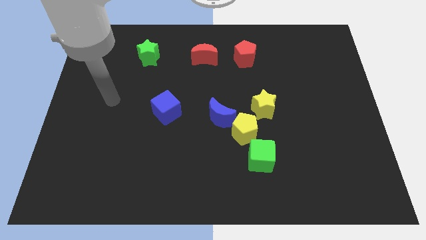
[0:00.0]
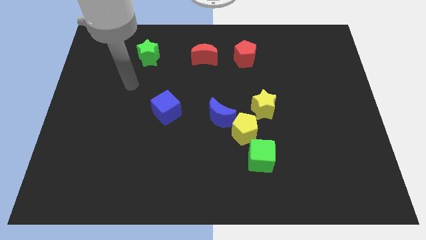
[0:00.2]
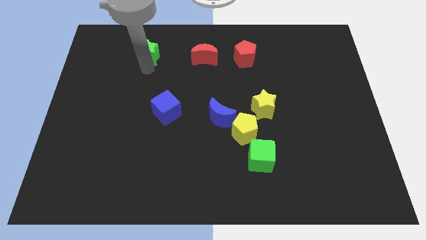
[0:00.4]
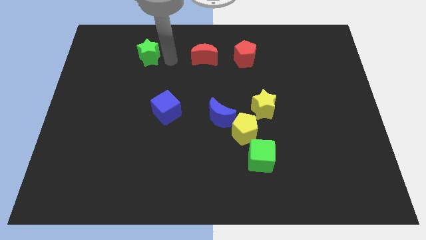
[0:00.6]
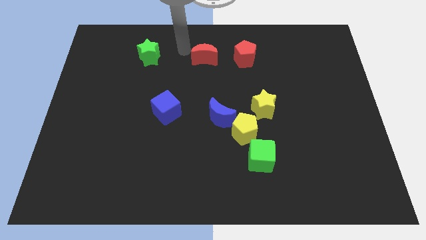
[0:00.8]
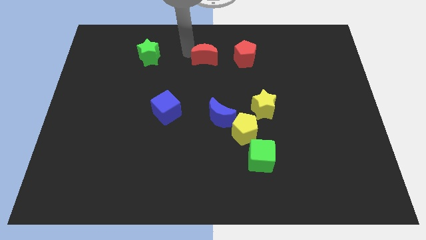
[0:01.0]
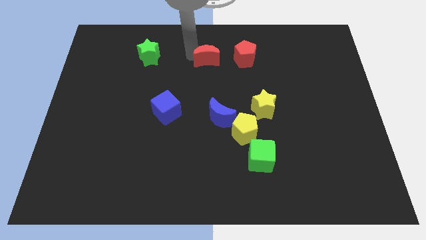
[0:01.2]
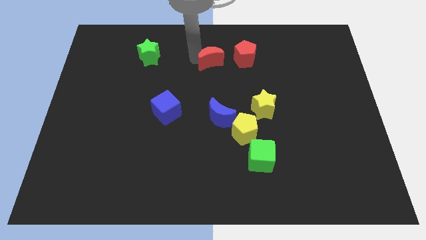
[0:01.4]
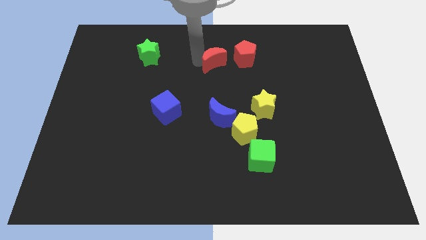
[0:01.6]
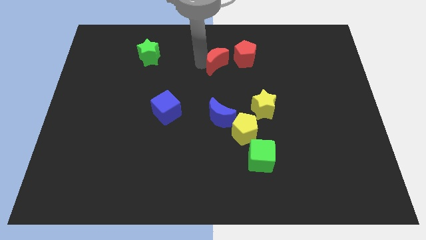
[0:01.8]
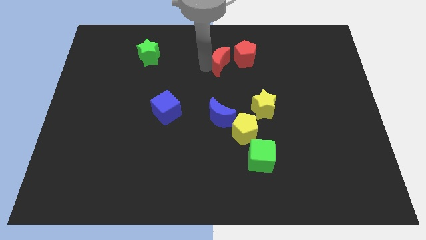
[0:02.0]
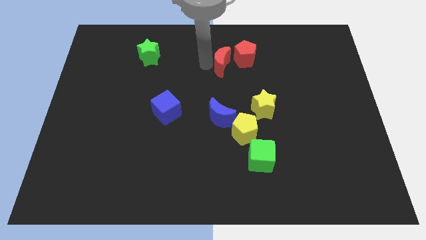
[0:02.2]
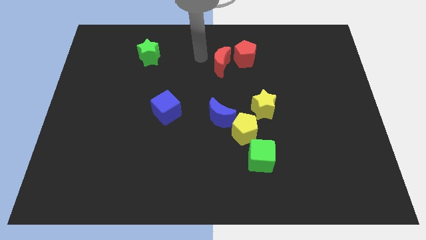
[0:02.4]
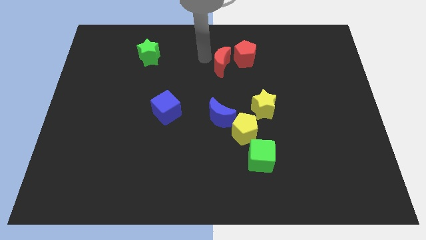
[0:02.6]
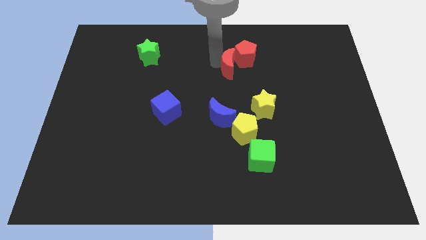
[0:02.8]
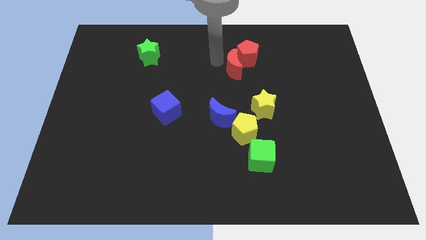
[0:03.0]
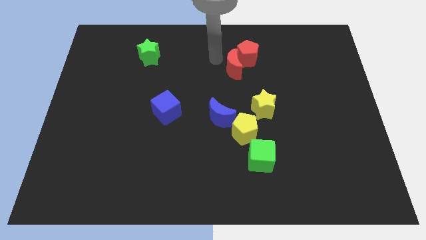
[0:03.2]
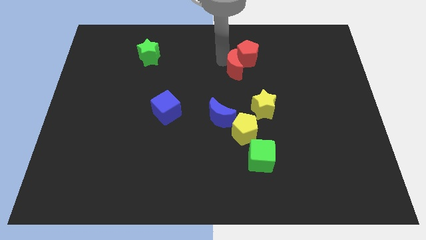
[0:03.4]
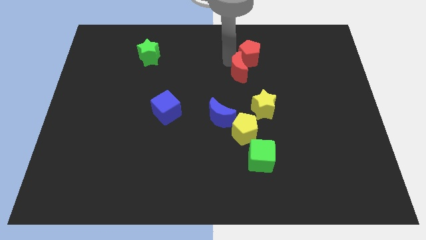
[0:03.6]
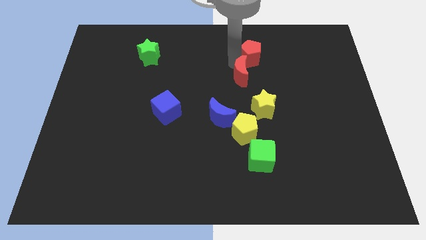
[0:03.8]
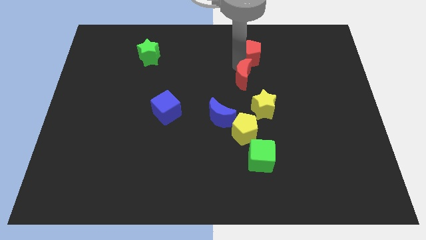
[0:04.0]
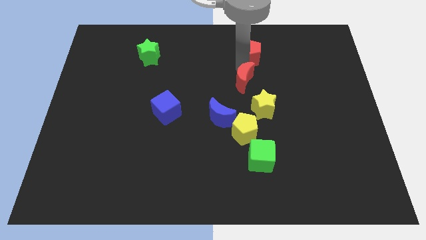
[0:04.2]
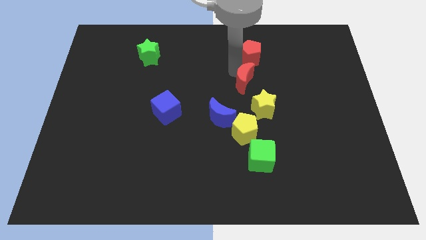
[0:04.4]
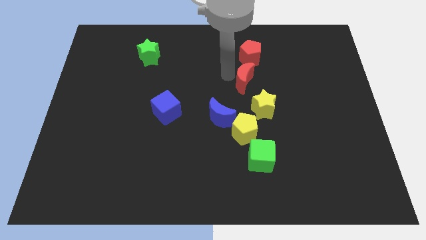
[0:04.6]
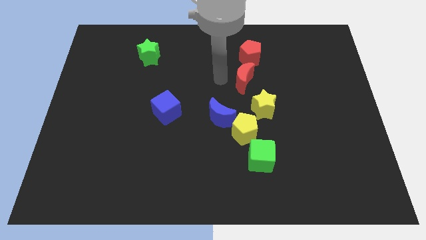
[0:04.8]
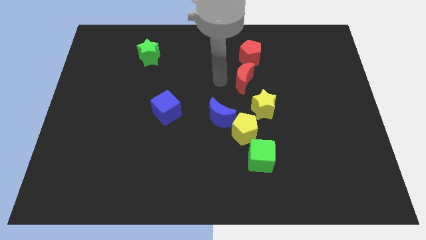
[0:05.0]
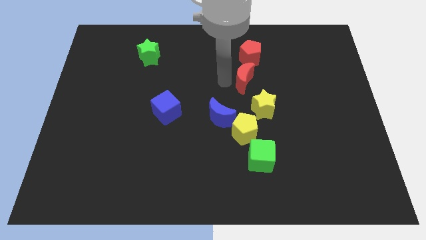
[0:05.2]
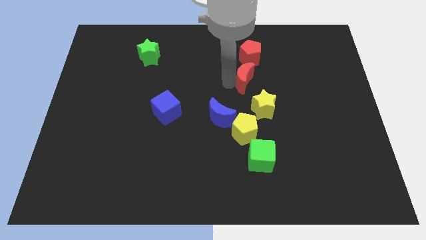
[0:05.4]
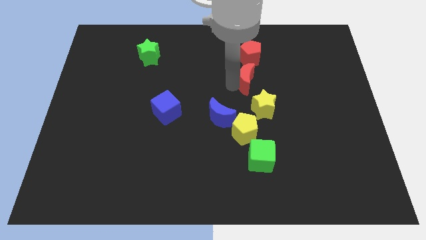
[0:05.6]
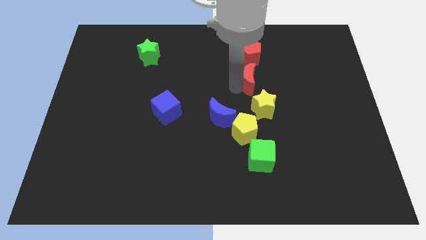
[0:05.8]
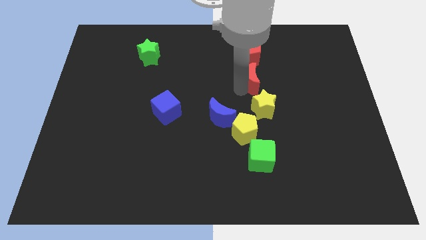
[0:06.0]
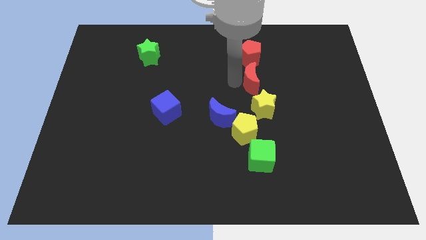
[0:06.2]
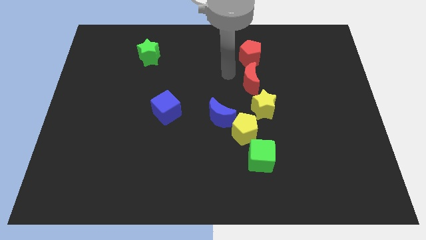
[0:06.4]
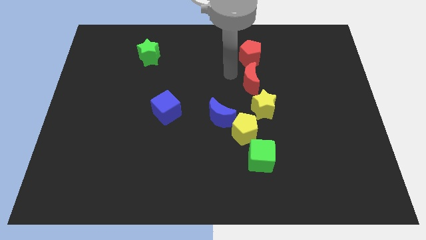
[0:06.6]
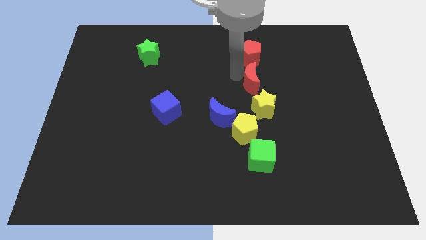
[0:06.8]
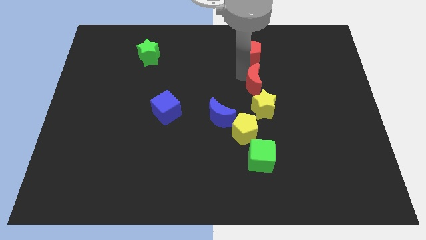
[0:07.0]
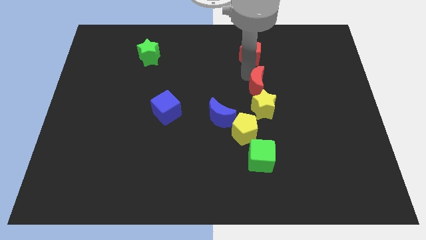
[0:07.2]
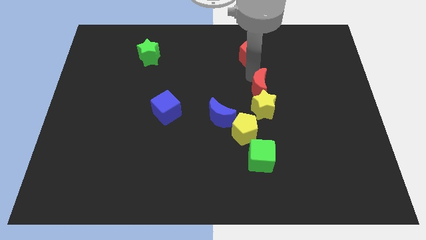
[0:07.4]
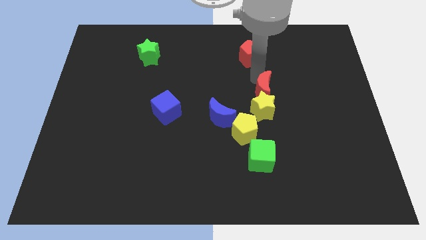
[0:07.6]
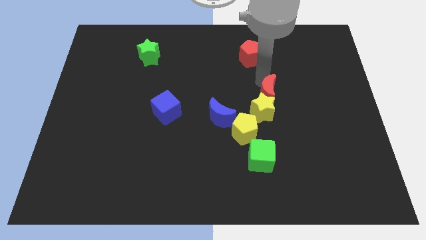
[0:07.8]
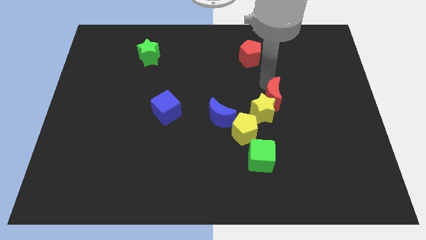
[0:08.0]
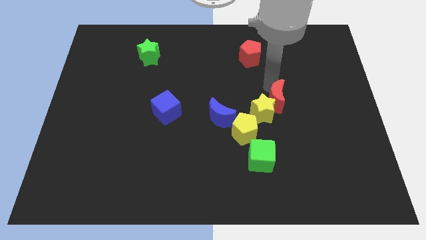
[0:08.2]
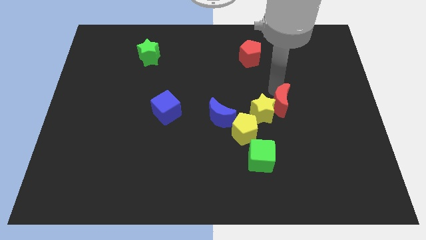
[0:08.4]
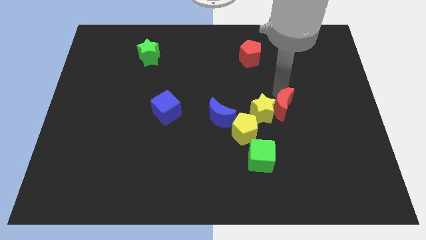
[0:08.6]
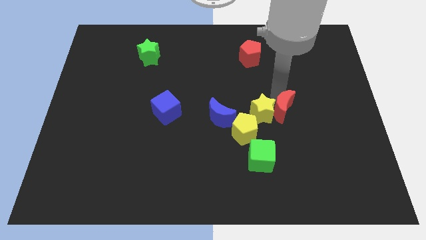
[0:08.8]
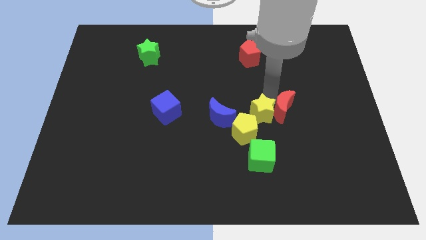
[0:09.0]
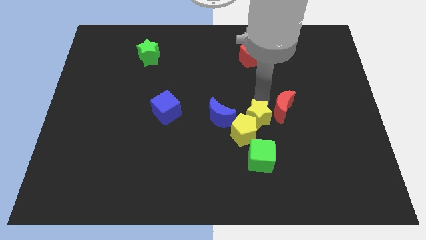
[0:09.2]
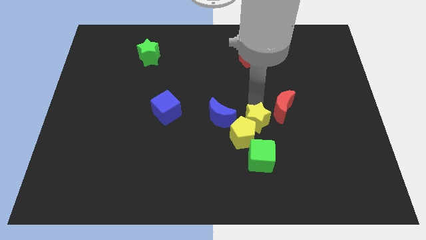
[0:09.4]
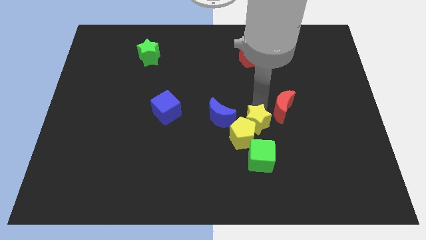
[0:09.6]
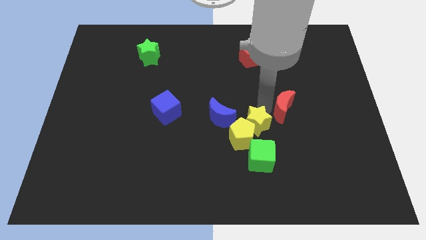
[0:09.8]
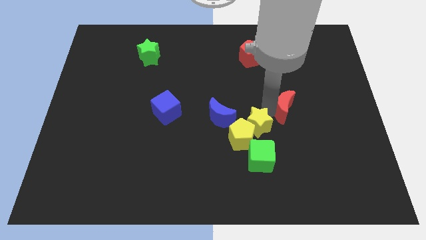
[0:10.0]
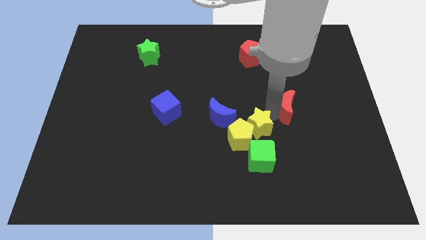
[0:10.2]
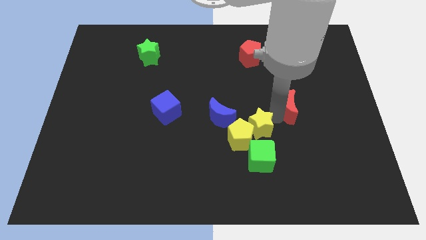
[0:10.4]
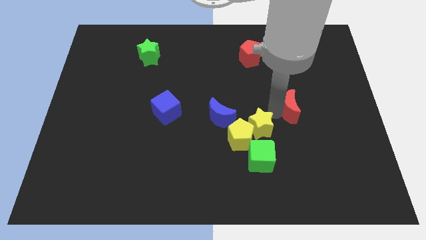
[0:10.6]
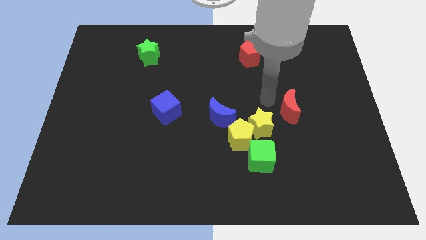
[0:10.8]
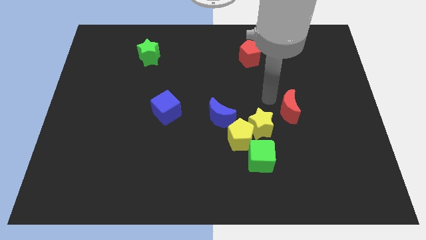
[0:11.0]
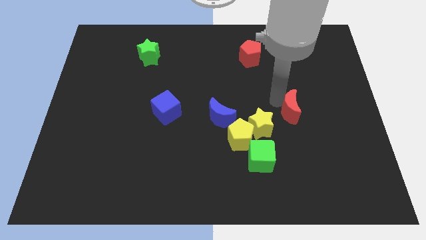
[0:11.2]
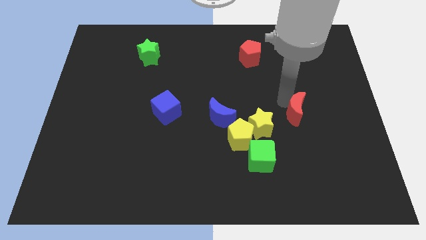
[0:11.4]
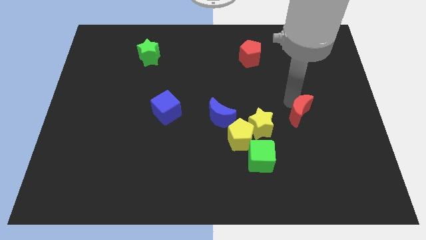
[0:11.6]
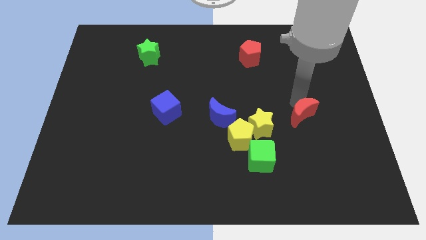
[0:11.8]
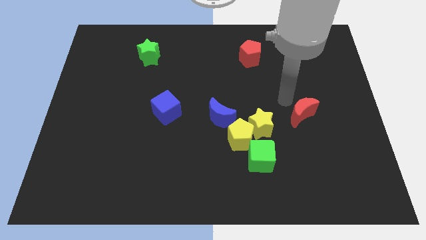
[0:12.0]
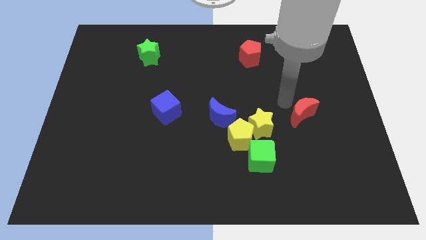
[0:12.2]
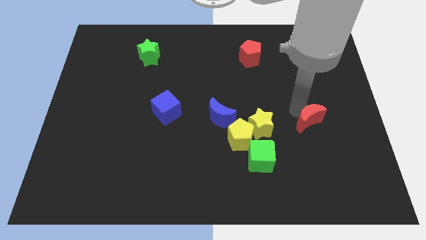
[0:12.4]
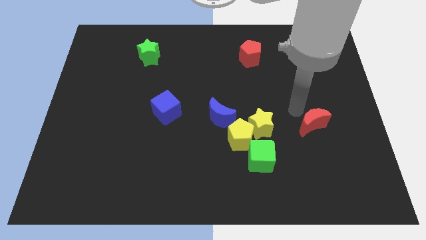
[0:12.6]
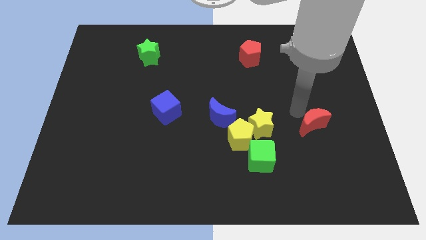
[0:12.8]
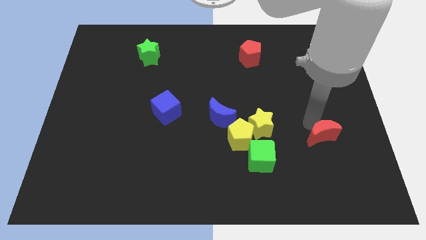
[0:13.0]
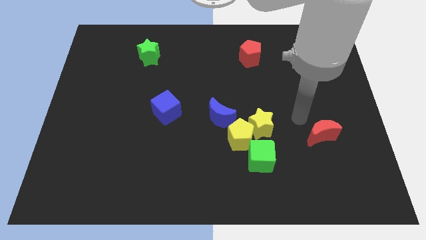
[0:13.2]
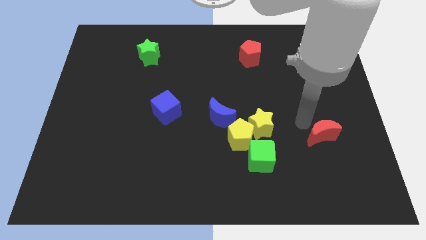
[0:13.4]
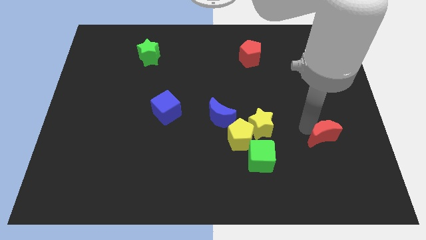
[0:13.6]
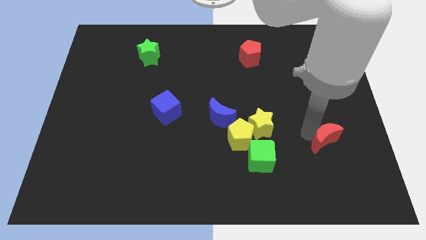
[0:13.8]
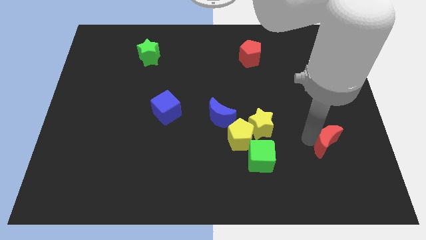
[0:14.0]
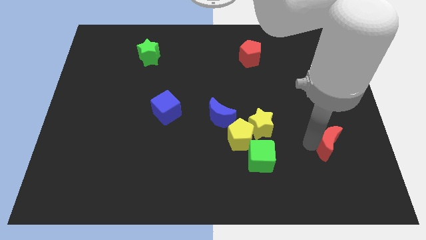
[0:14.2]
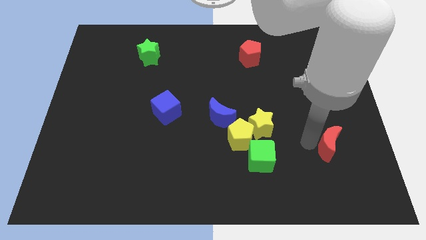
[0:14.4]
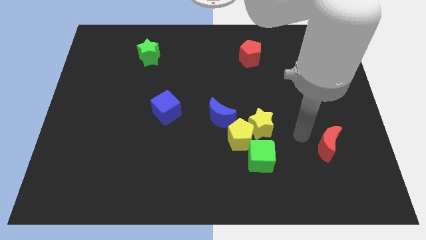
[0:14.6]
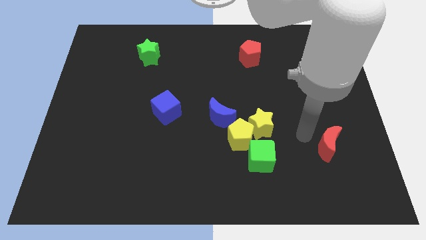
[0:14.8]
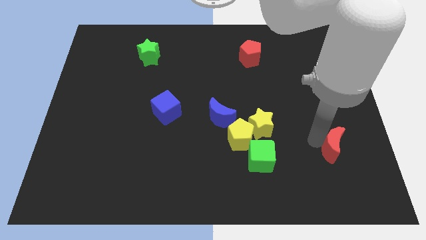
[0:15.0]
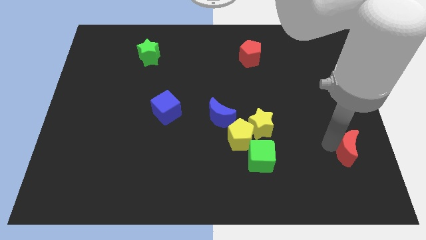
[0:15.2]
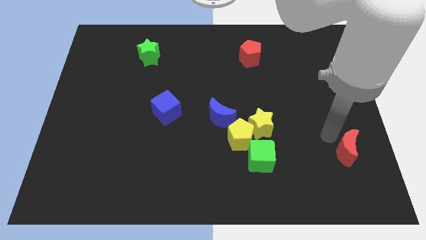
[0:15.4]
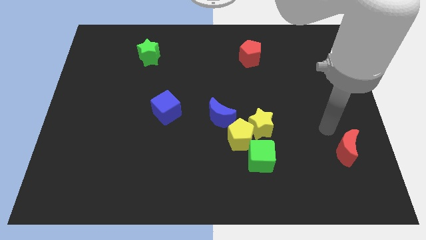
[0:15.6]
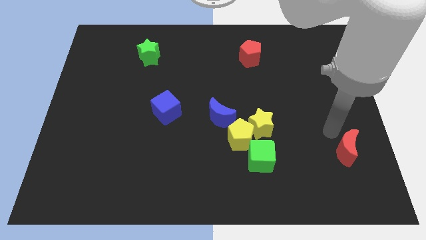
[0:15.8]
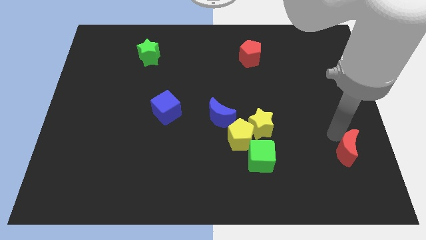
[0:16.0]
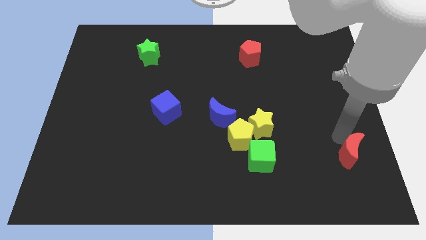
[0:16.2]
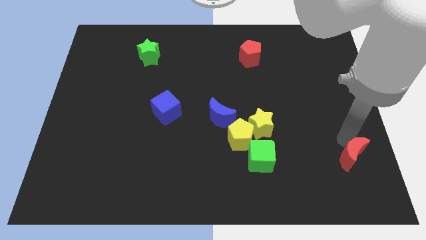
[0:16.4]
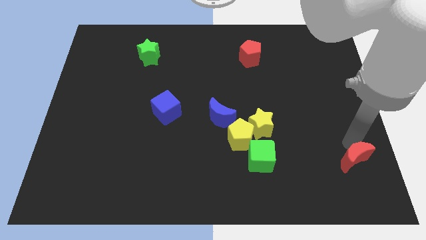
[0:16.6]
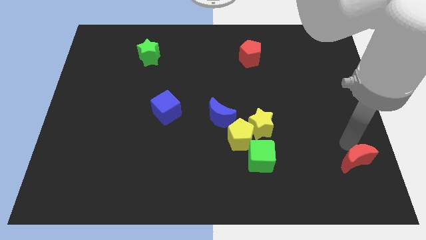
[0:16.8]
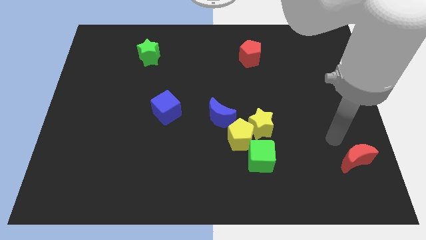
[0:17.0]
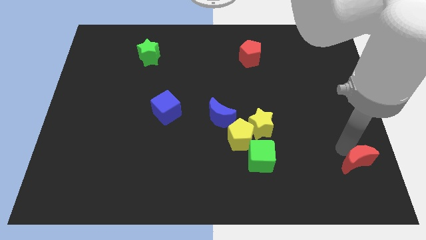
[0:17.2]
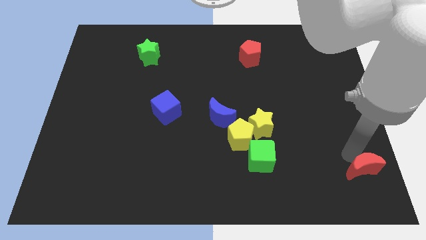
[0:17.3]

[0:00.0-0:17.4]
slide the red moon to the lower right corner
